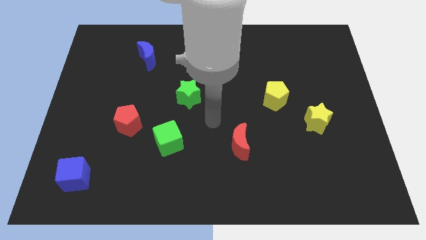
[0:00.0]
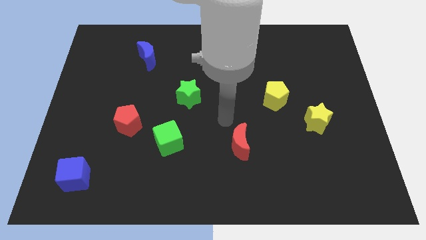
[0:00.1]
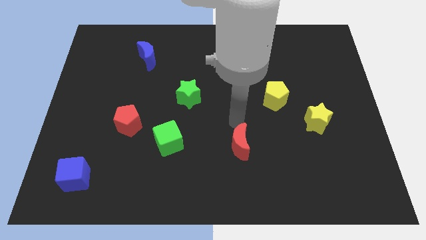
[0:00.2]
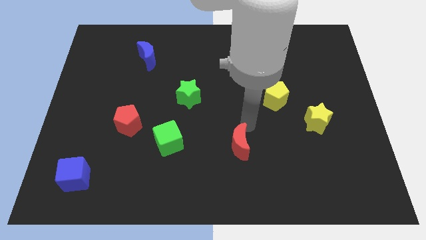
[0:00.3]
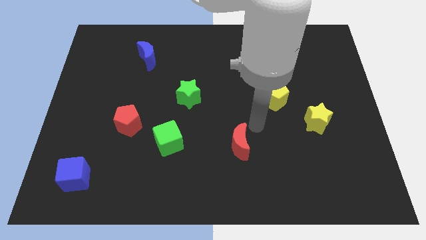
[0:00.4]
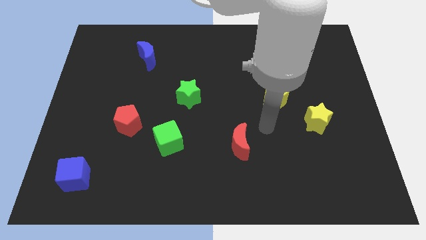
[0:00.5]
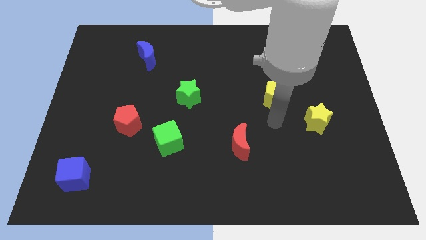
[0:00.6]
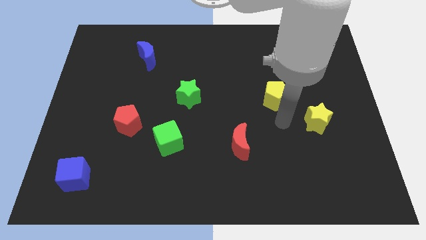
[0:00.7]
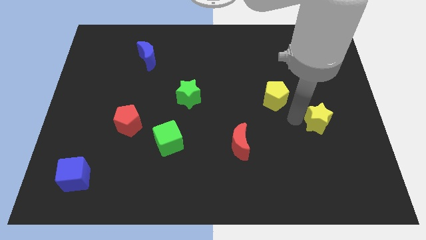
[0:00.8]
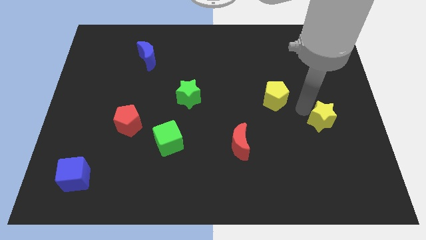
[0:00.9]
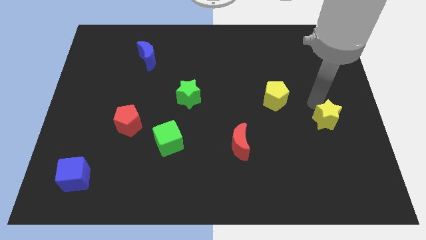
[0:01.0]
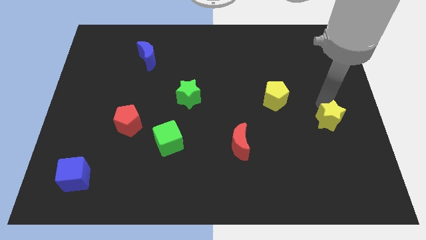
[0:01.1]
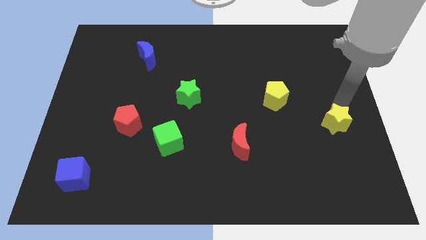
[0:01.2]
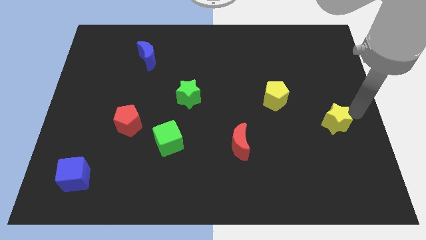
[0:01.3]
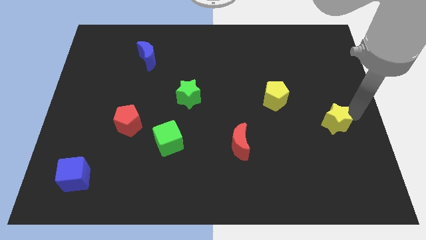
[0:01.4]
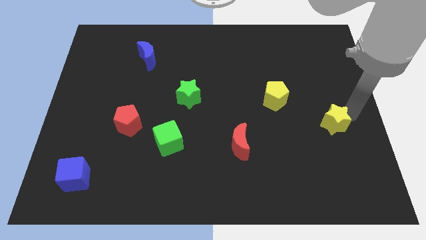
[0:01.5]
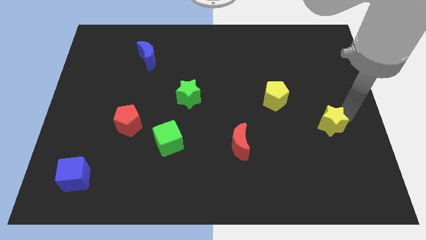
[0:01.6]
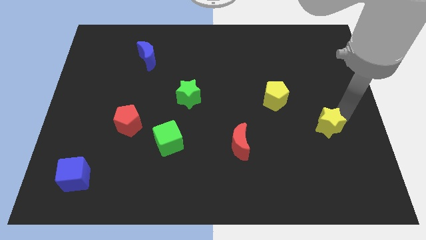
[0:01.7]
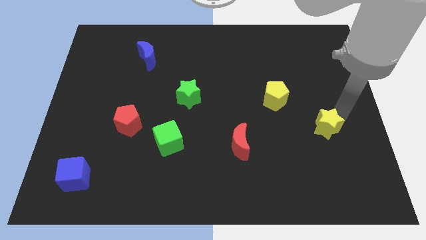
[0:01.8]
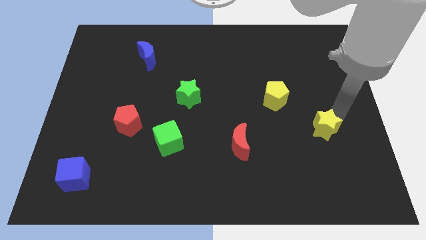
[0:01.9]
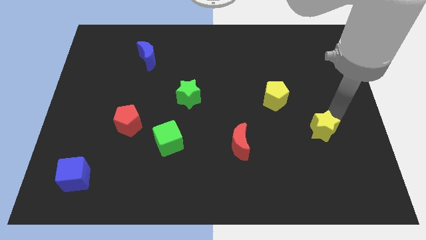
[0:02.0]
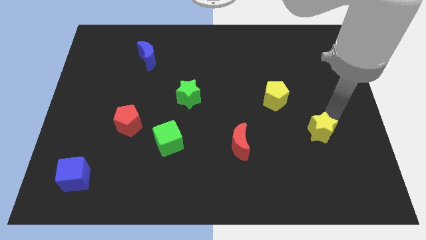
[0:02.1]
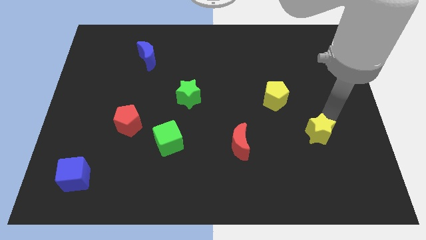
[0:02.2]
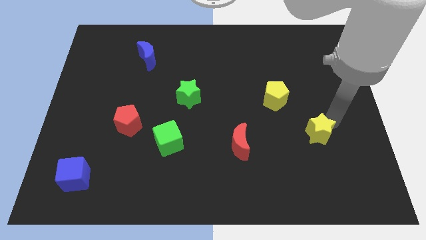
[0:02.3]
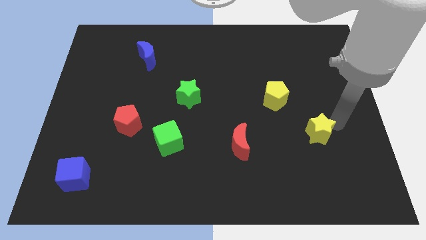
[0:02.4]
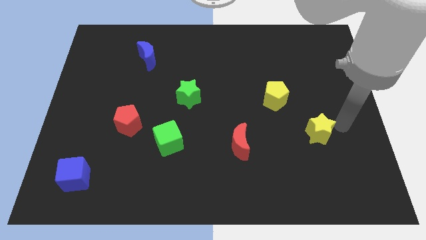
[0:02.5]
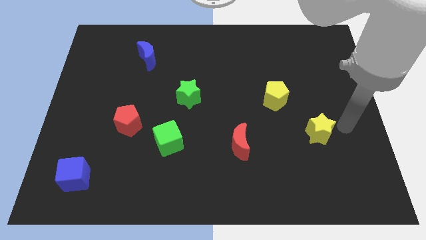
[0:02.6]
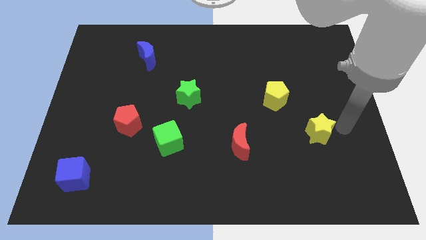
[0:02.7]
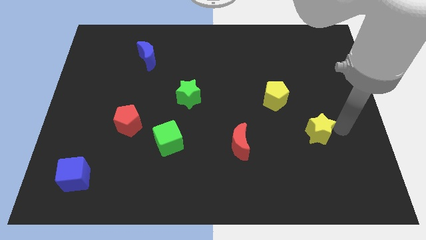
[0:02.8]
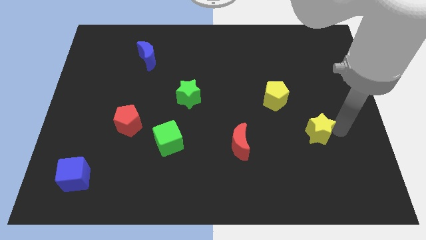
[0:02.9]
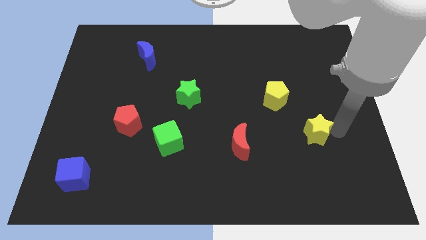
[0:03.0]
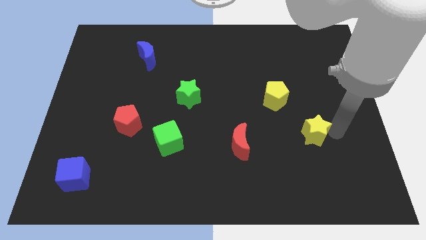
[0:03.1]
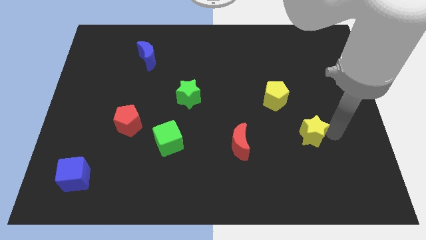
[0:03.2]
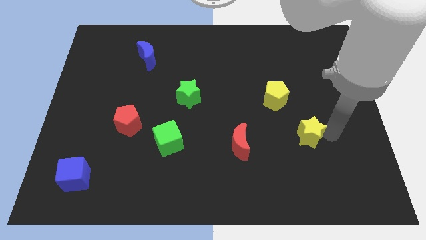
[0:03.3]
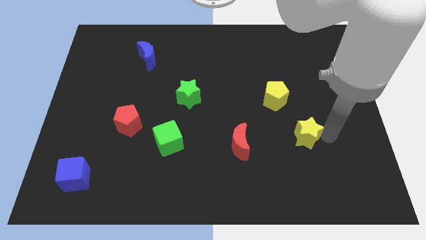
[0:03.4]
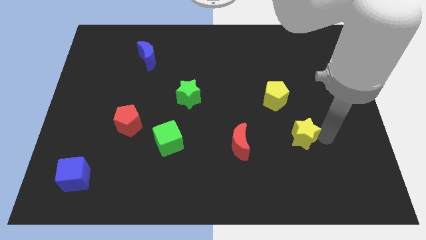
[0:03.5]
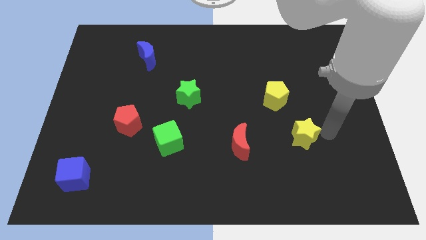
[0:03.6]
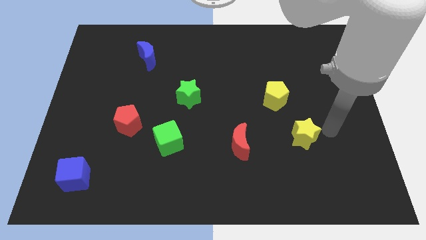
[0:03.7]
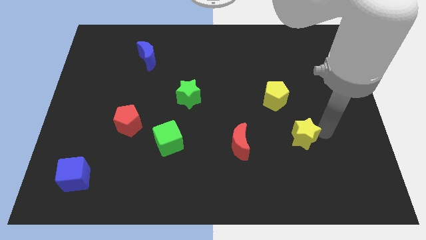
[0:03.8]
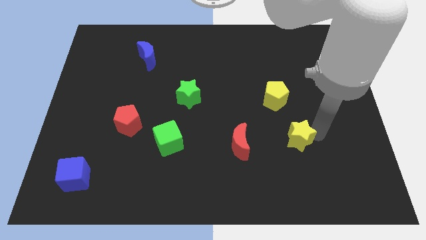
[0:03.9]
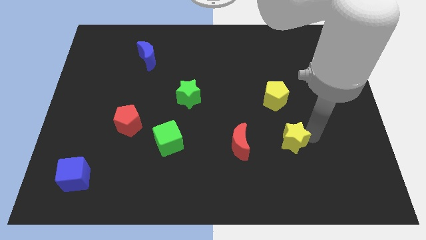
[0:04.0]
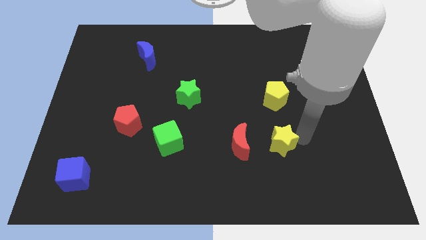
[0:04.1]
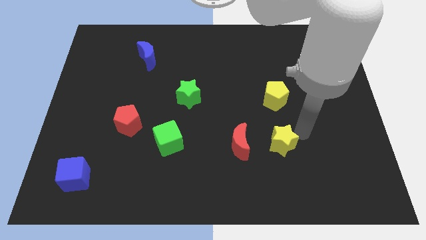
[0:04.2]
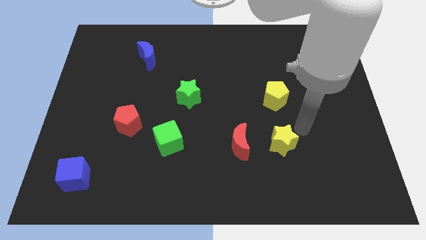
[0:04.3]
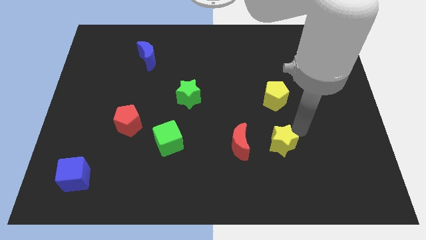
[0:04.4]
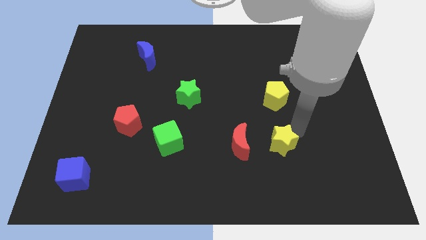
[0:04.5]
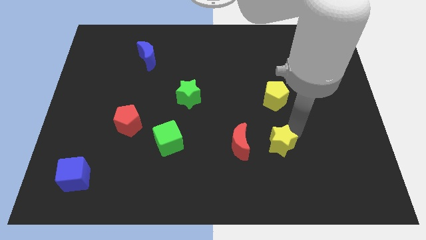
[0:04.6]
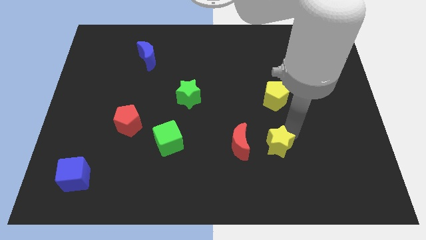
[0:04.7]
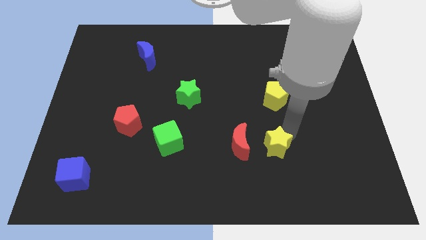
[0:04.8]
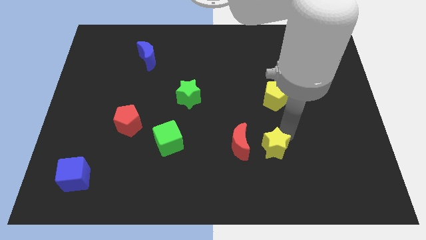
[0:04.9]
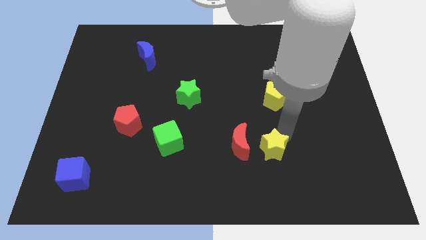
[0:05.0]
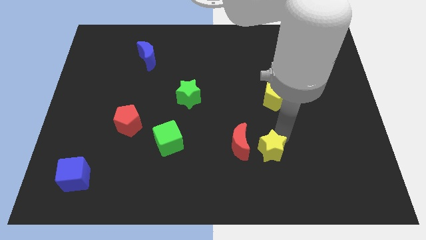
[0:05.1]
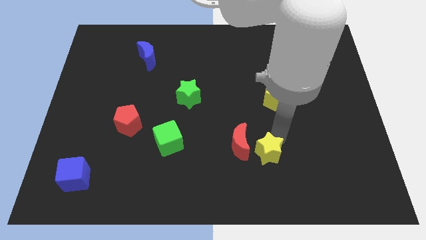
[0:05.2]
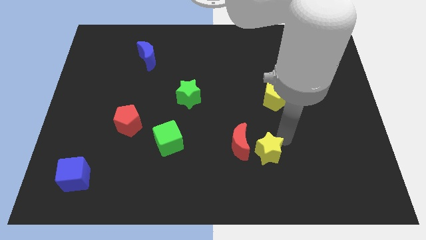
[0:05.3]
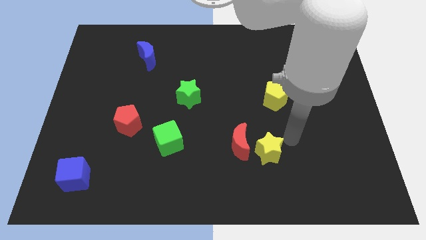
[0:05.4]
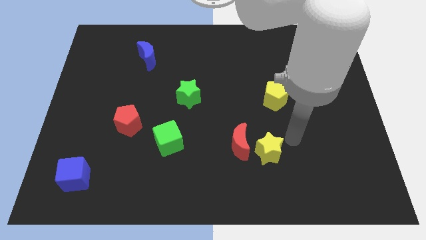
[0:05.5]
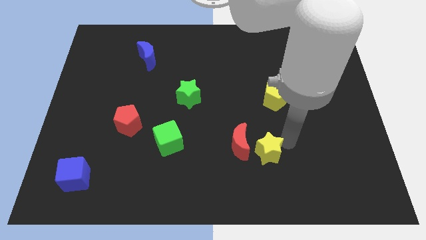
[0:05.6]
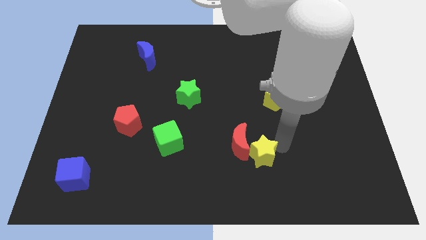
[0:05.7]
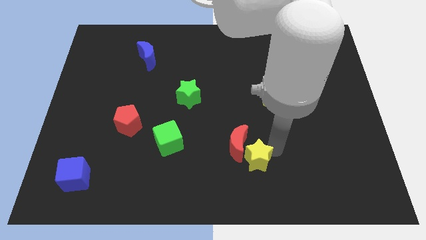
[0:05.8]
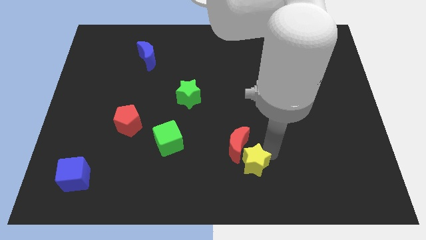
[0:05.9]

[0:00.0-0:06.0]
move the yellow star to the bottom side

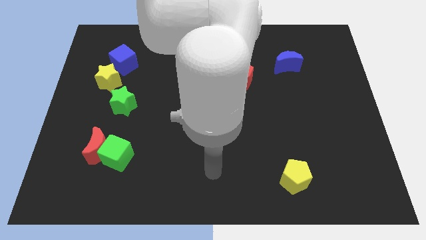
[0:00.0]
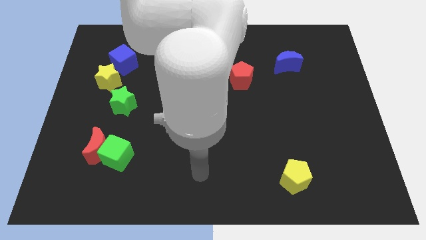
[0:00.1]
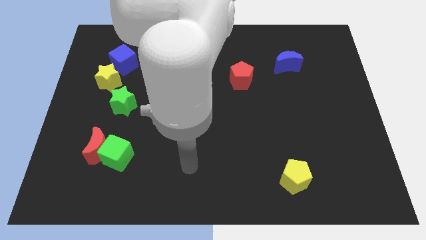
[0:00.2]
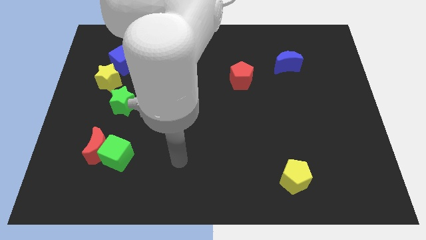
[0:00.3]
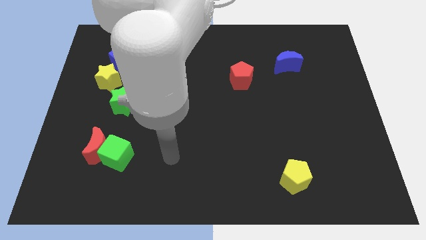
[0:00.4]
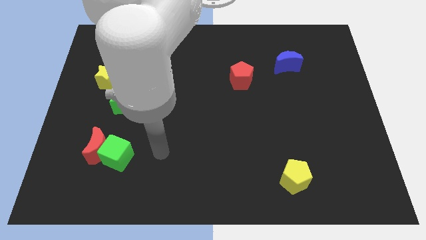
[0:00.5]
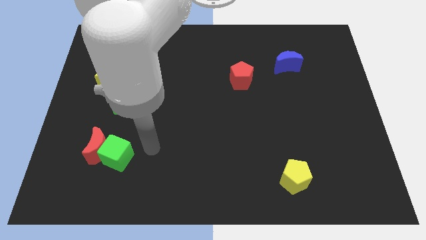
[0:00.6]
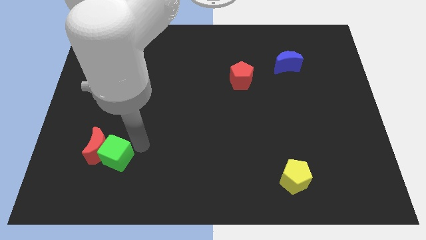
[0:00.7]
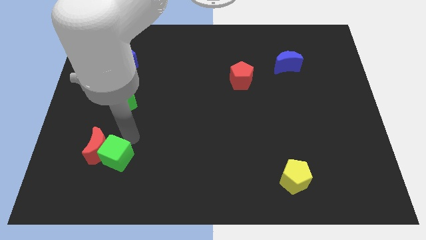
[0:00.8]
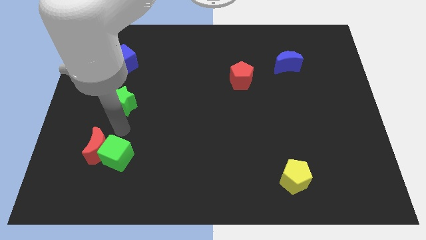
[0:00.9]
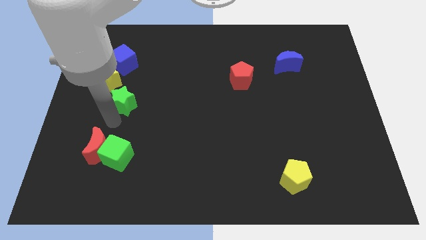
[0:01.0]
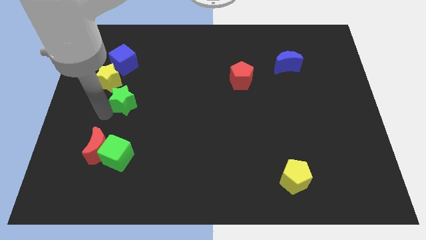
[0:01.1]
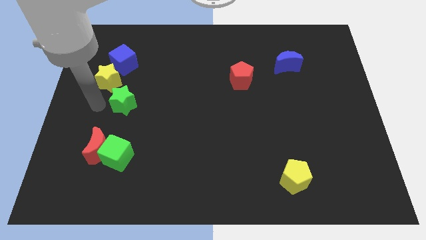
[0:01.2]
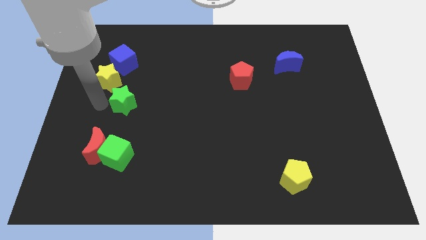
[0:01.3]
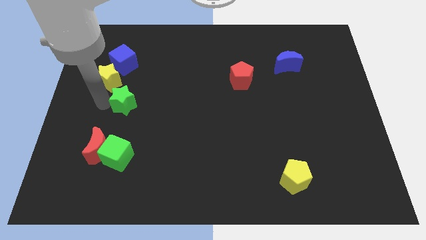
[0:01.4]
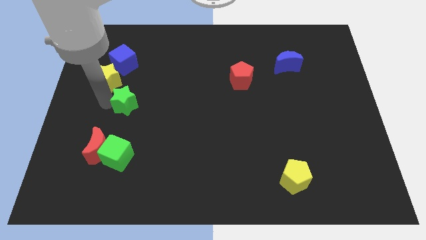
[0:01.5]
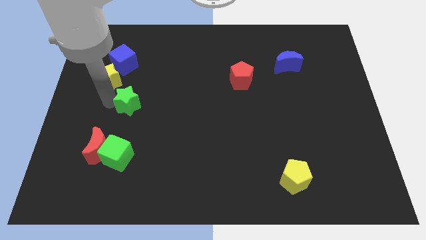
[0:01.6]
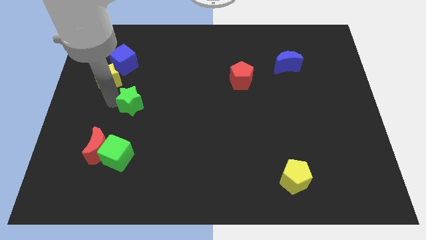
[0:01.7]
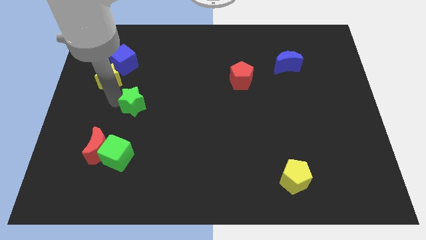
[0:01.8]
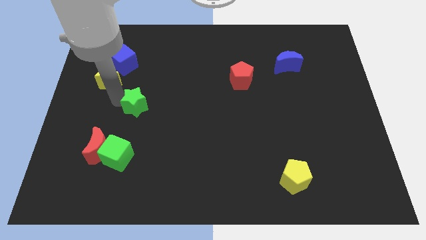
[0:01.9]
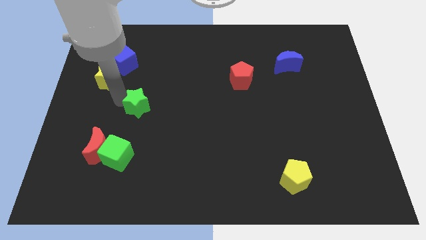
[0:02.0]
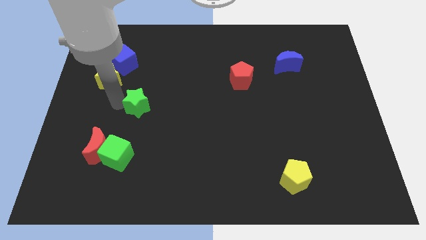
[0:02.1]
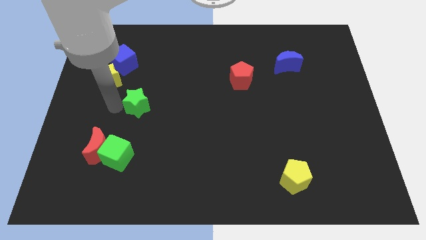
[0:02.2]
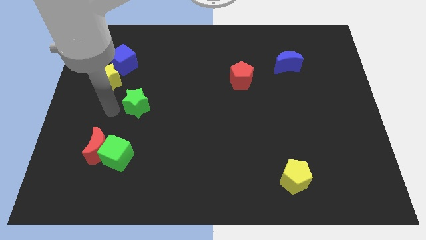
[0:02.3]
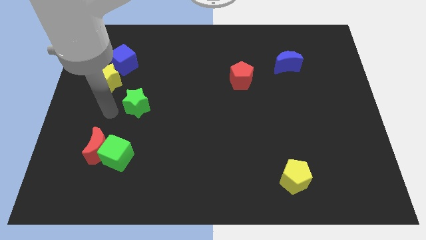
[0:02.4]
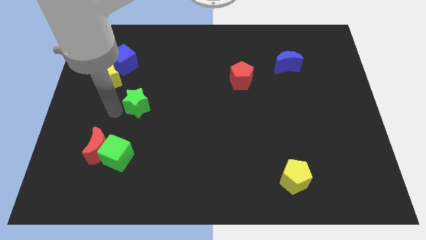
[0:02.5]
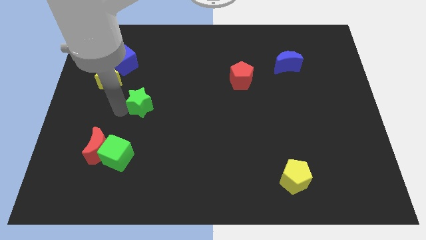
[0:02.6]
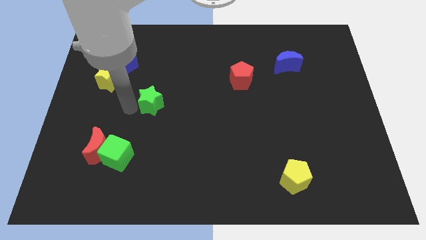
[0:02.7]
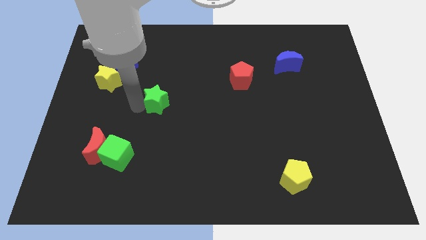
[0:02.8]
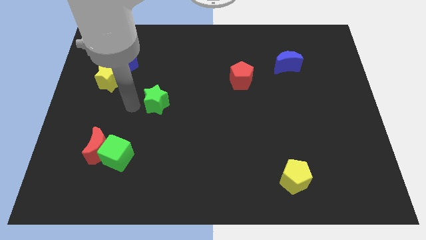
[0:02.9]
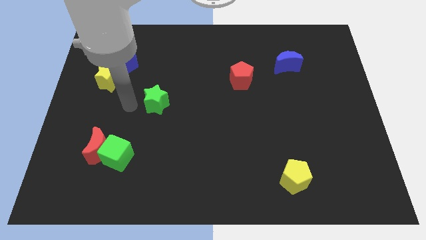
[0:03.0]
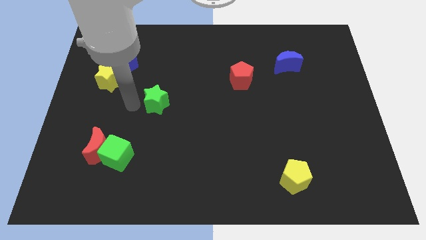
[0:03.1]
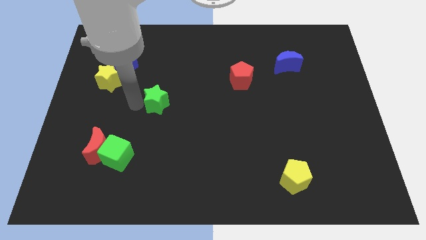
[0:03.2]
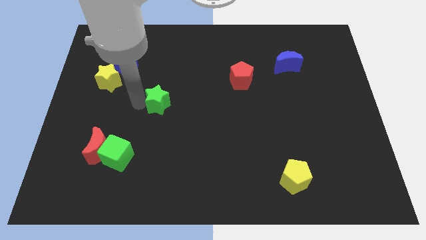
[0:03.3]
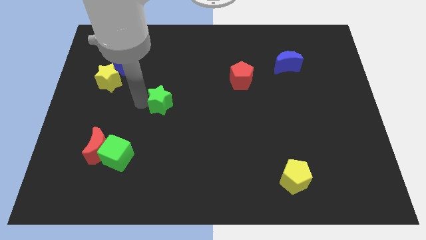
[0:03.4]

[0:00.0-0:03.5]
slide the green star to the center
